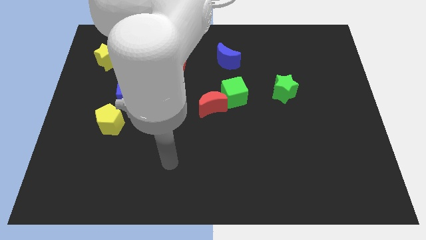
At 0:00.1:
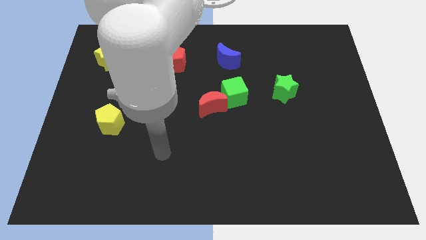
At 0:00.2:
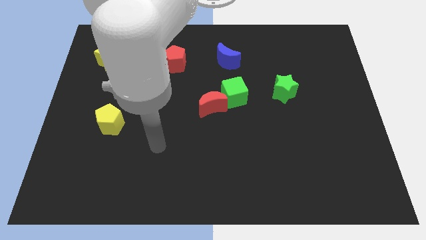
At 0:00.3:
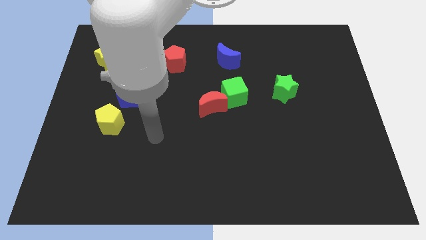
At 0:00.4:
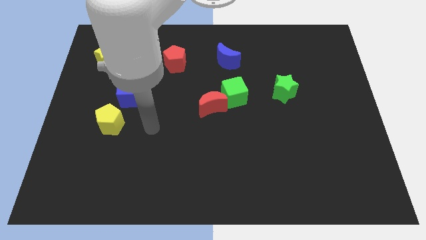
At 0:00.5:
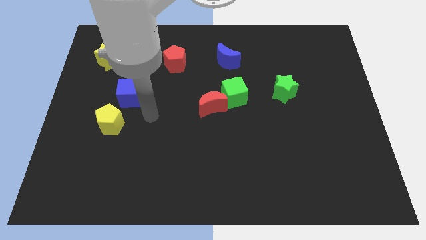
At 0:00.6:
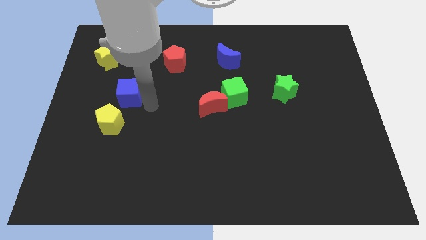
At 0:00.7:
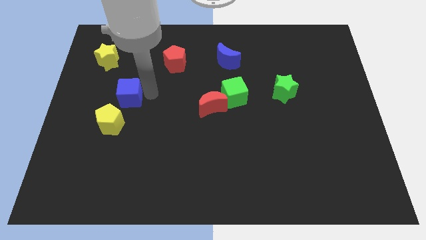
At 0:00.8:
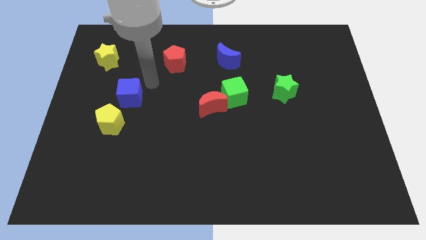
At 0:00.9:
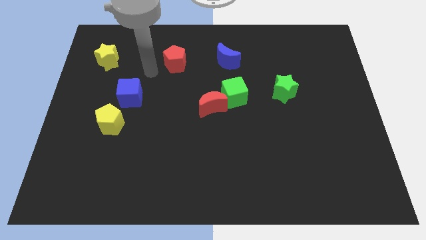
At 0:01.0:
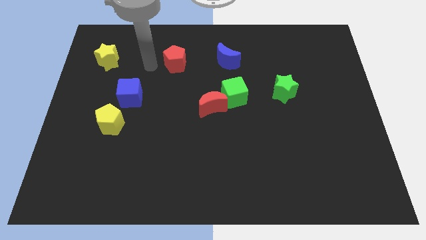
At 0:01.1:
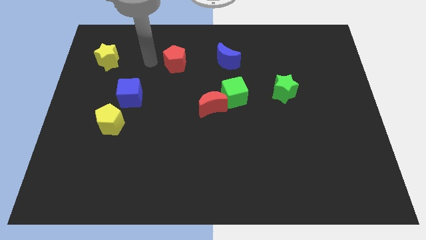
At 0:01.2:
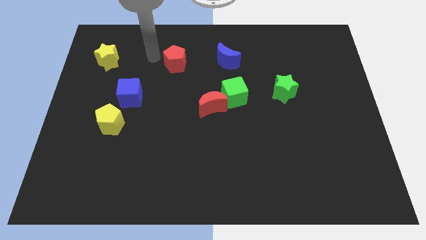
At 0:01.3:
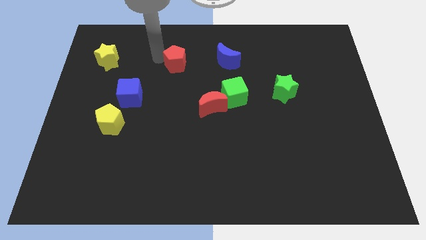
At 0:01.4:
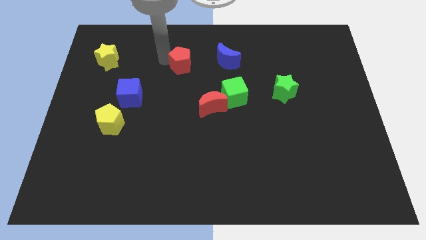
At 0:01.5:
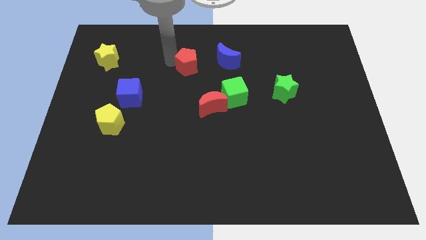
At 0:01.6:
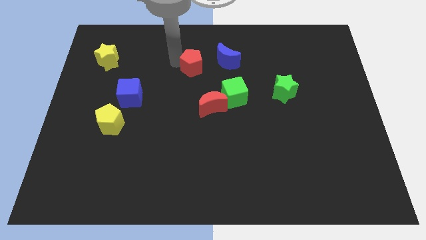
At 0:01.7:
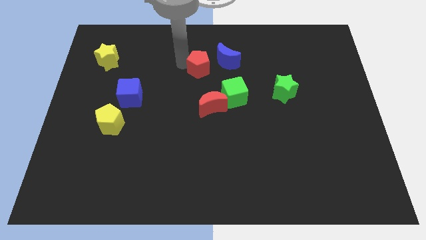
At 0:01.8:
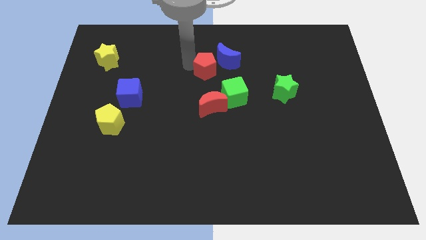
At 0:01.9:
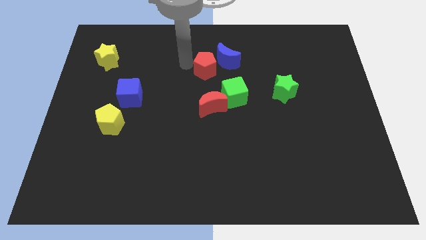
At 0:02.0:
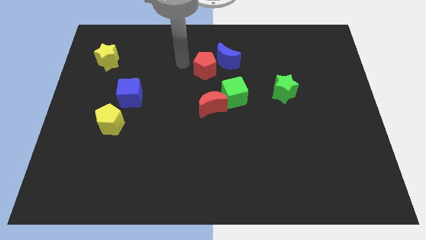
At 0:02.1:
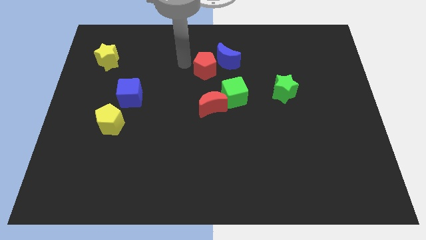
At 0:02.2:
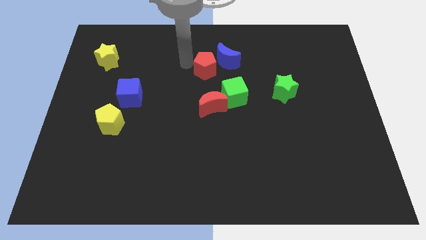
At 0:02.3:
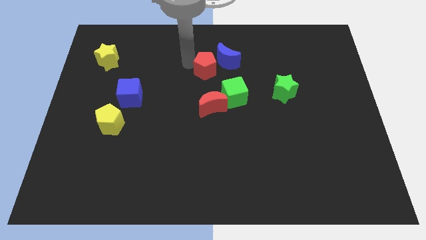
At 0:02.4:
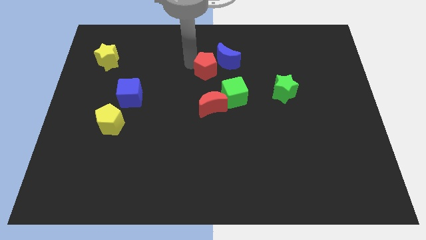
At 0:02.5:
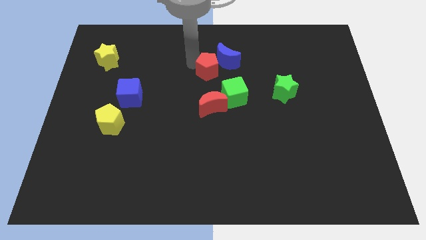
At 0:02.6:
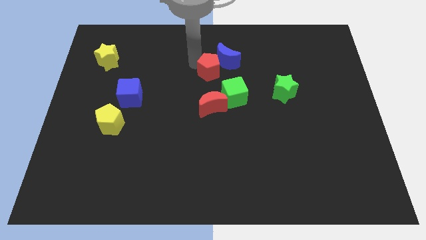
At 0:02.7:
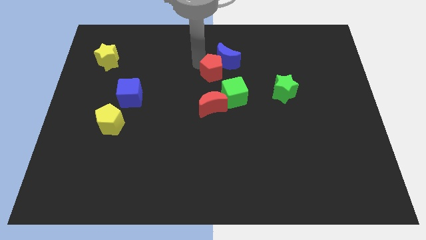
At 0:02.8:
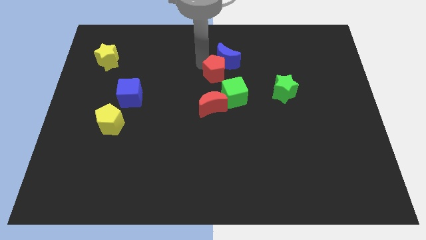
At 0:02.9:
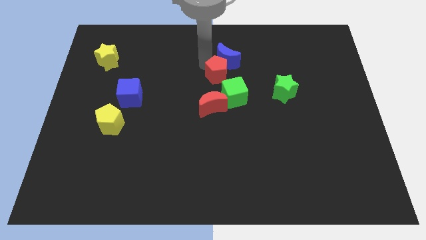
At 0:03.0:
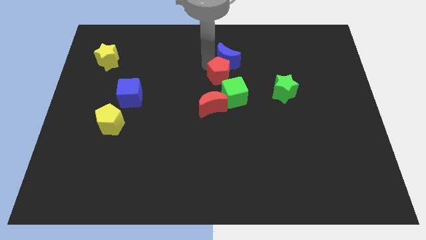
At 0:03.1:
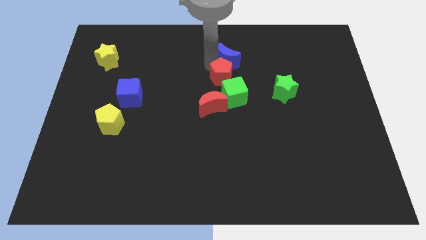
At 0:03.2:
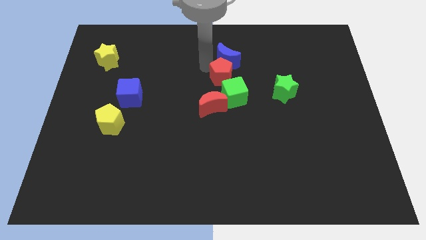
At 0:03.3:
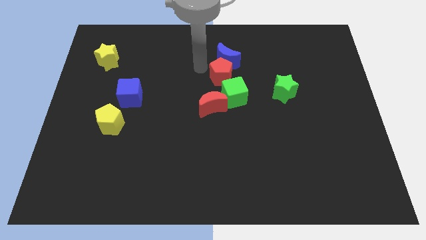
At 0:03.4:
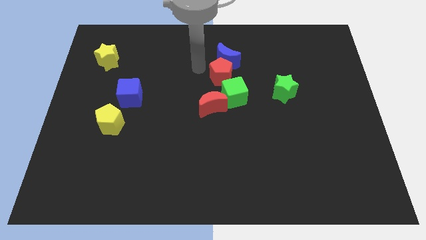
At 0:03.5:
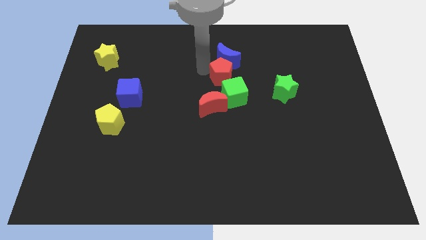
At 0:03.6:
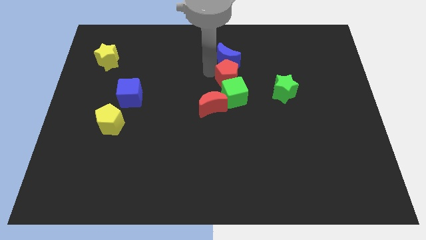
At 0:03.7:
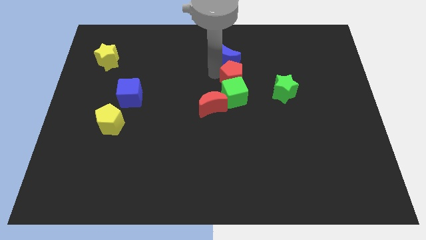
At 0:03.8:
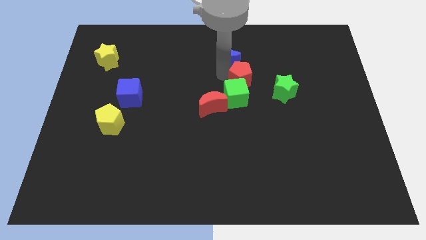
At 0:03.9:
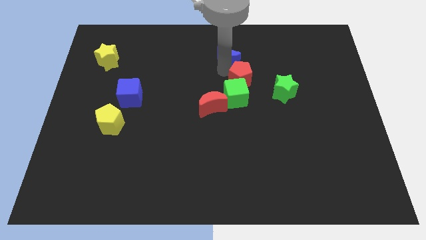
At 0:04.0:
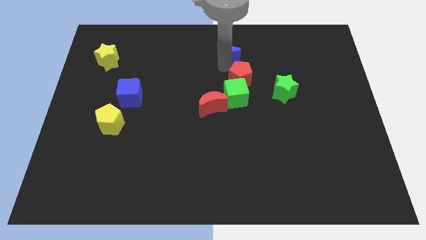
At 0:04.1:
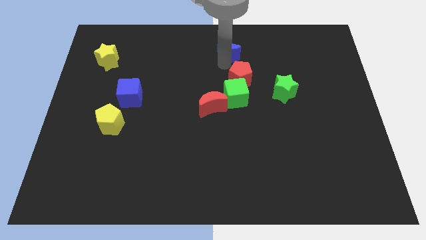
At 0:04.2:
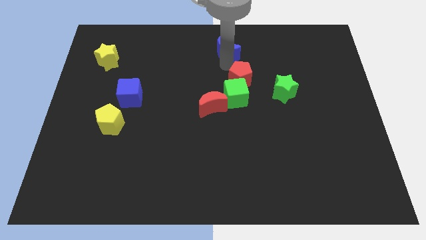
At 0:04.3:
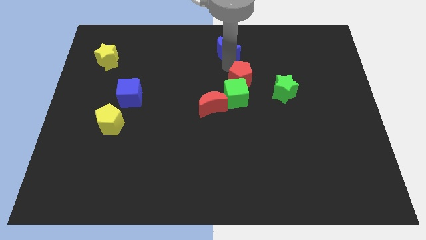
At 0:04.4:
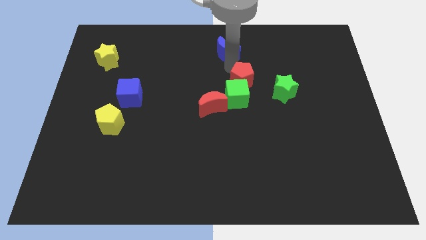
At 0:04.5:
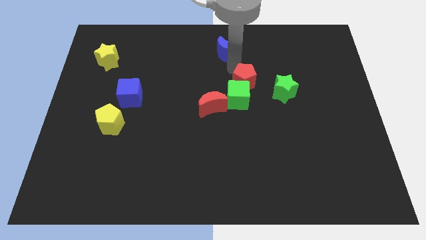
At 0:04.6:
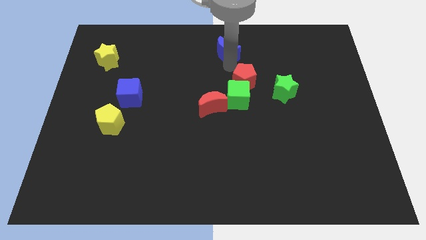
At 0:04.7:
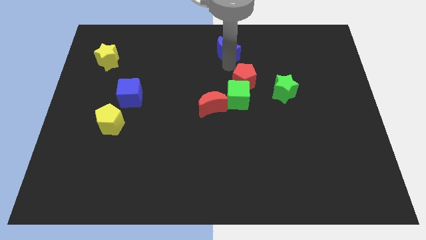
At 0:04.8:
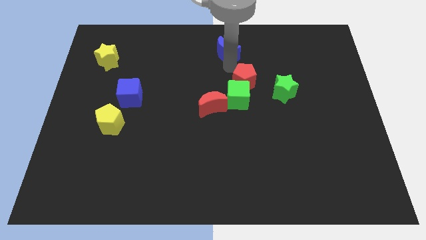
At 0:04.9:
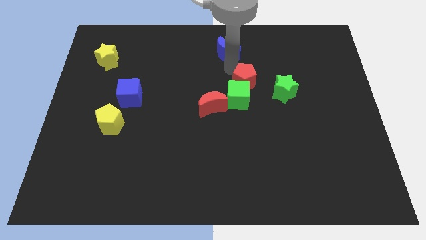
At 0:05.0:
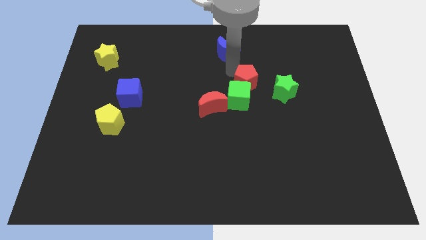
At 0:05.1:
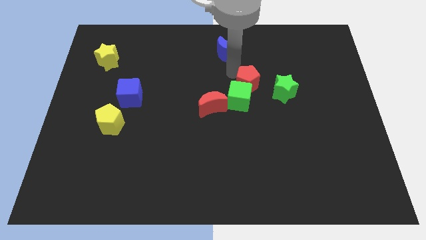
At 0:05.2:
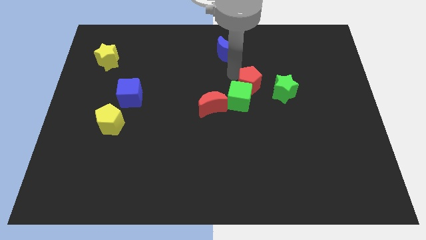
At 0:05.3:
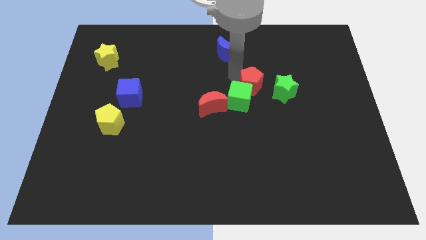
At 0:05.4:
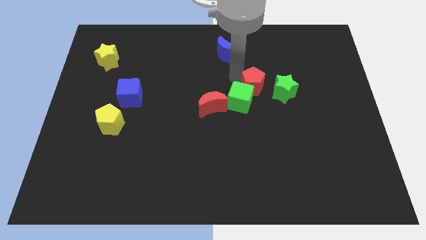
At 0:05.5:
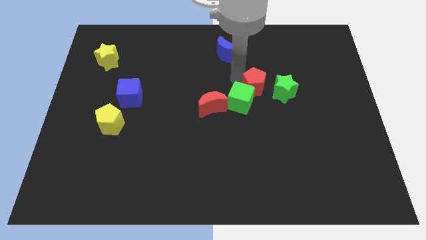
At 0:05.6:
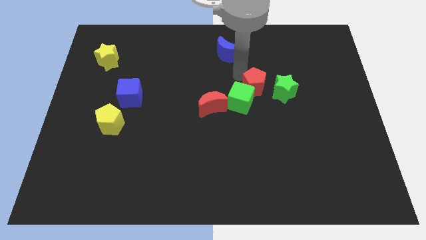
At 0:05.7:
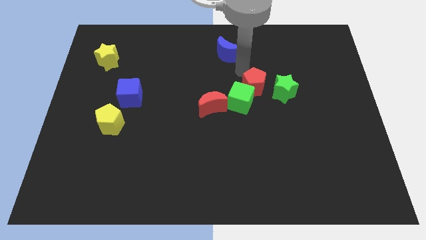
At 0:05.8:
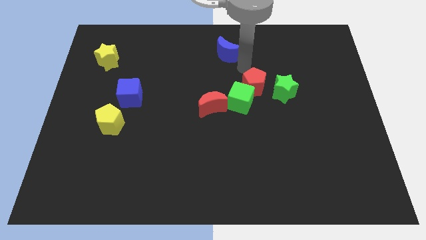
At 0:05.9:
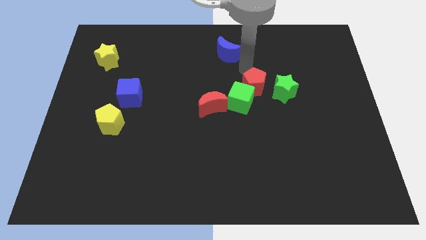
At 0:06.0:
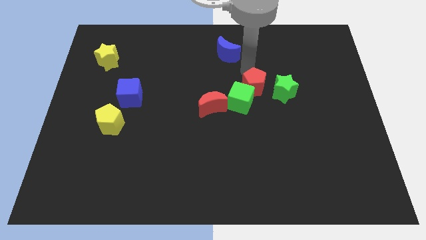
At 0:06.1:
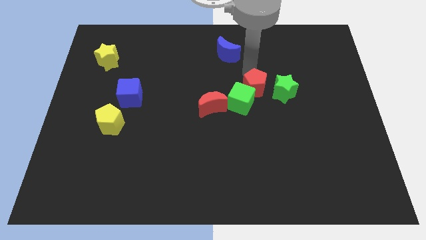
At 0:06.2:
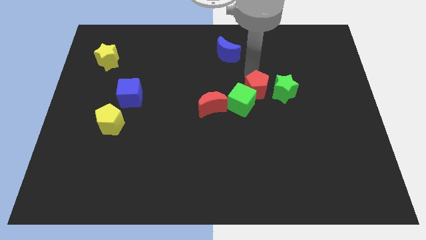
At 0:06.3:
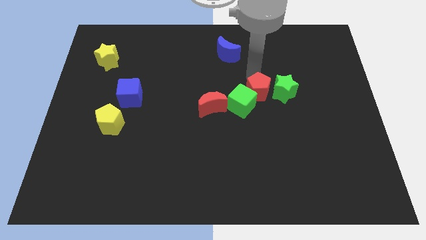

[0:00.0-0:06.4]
push the red pentagon to the bottom left of the green star

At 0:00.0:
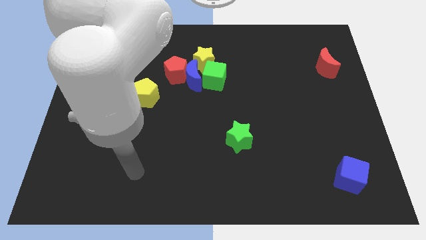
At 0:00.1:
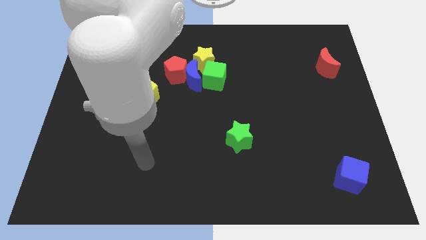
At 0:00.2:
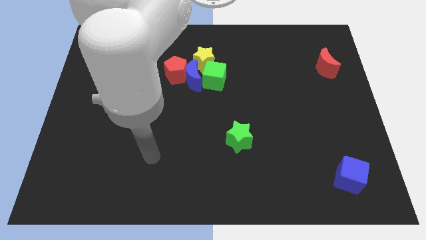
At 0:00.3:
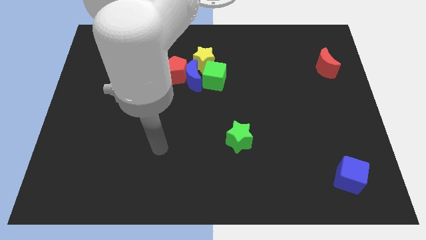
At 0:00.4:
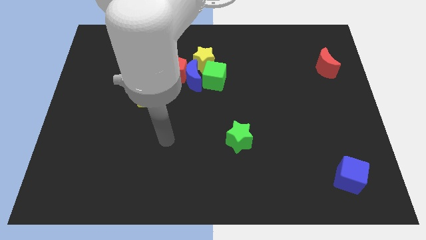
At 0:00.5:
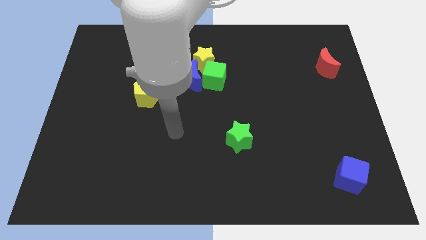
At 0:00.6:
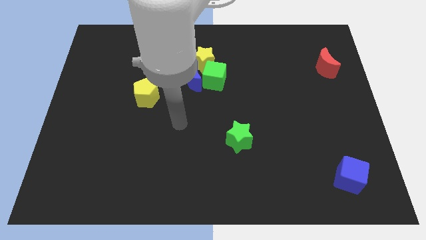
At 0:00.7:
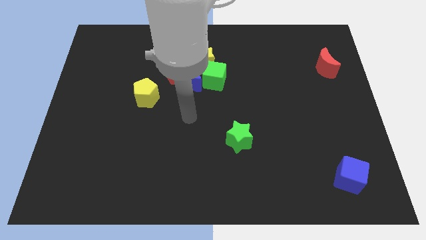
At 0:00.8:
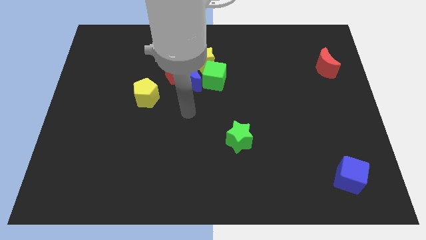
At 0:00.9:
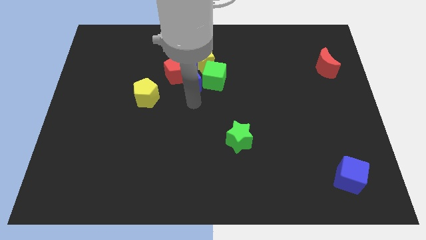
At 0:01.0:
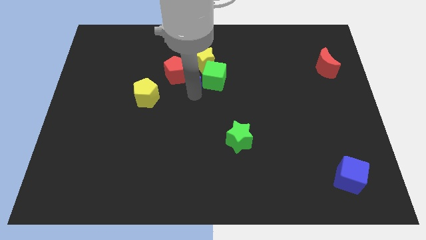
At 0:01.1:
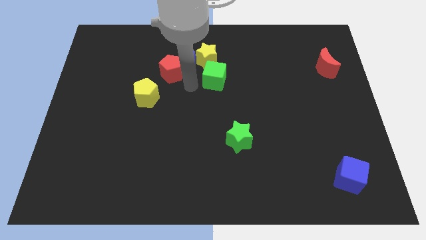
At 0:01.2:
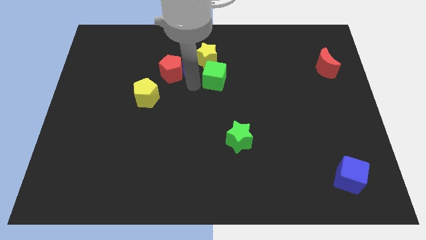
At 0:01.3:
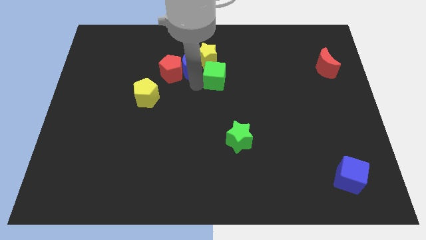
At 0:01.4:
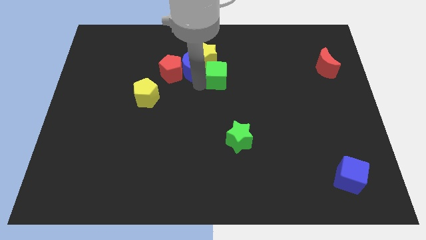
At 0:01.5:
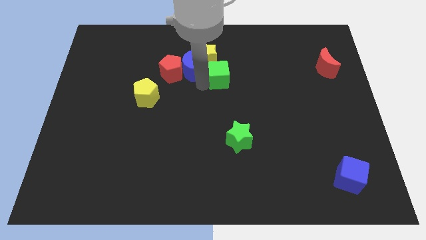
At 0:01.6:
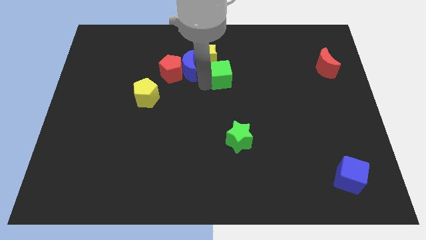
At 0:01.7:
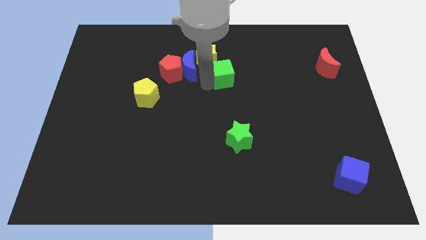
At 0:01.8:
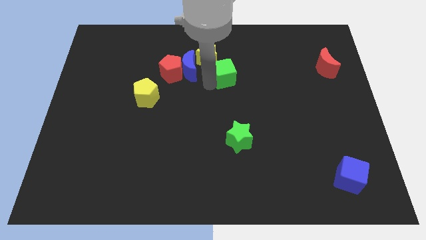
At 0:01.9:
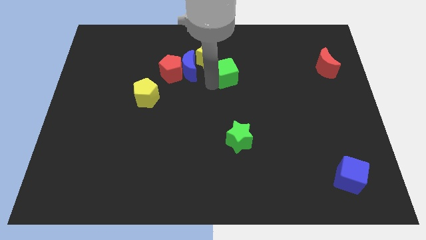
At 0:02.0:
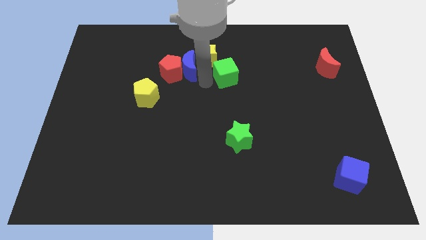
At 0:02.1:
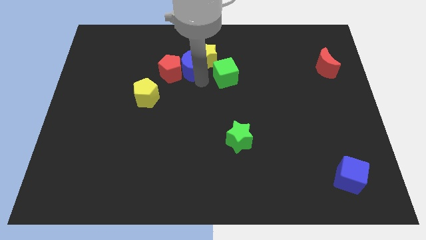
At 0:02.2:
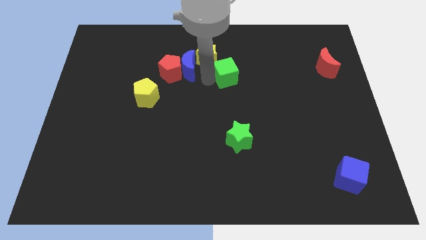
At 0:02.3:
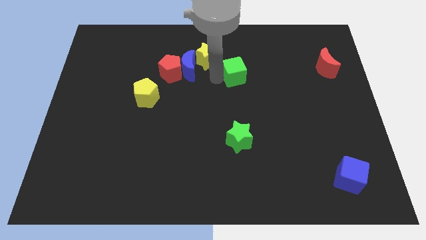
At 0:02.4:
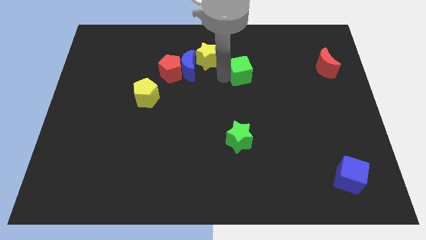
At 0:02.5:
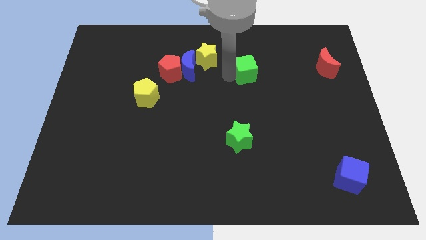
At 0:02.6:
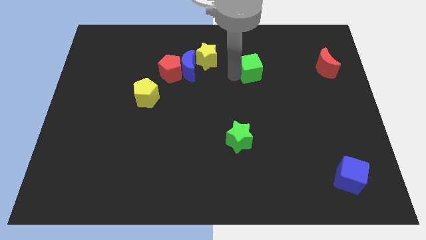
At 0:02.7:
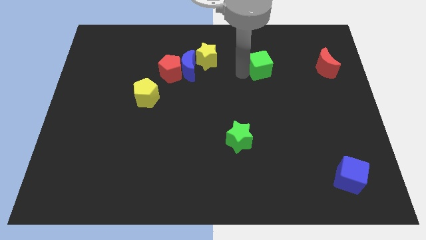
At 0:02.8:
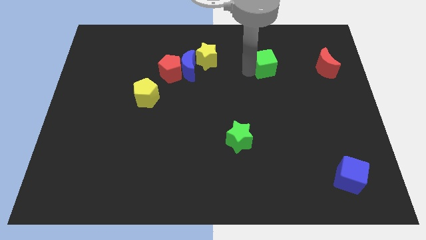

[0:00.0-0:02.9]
slide the green cube just left of the red moon
